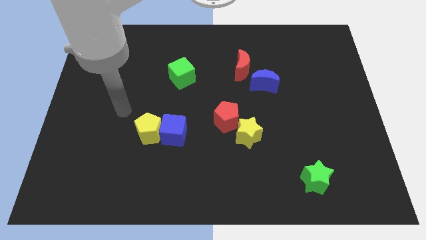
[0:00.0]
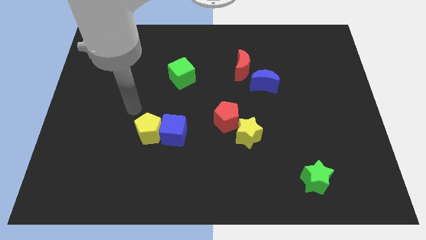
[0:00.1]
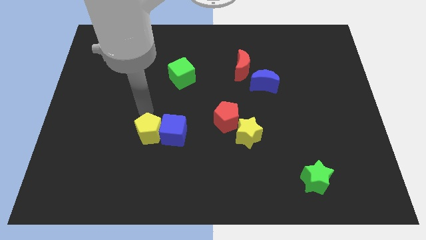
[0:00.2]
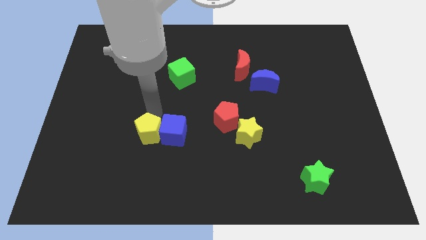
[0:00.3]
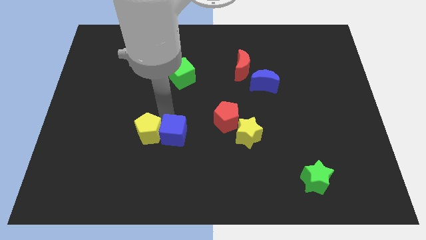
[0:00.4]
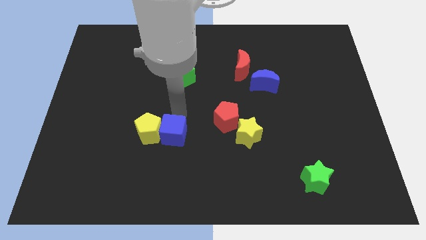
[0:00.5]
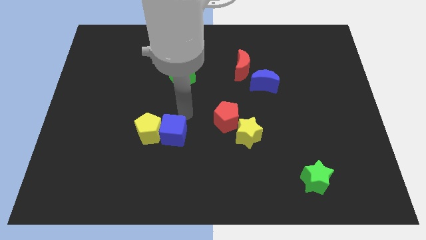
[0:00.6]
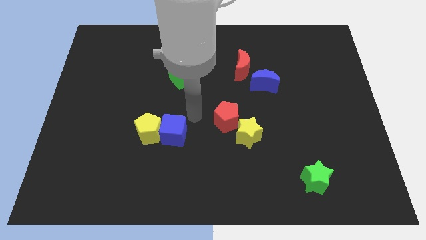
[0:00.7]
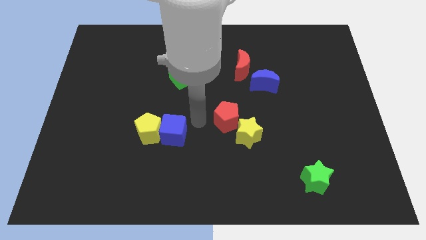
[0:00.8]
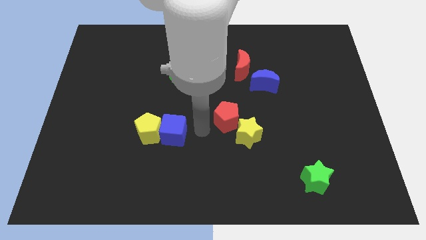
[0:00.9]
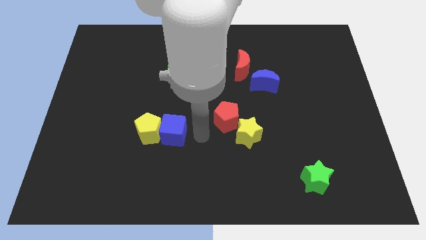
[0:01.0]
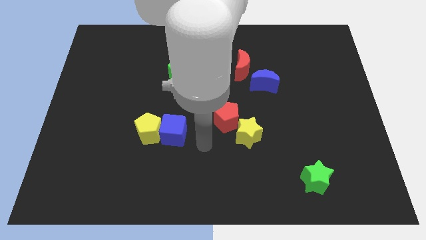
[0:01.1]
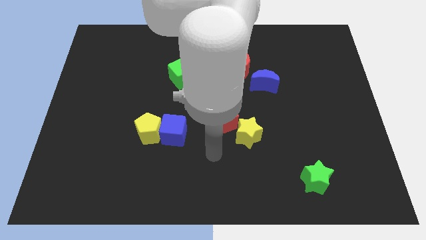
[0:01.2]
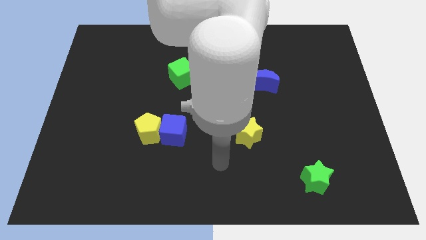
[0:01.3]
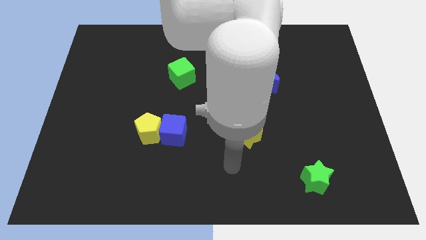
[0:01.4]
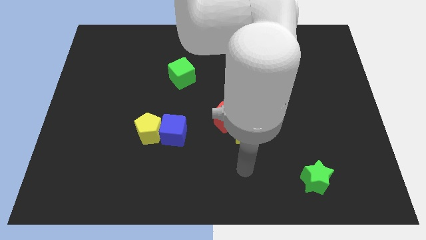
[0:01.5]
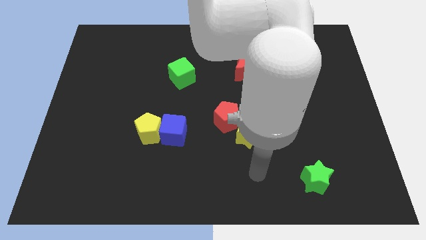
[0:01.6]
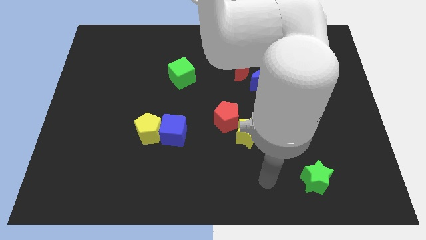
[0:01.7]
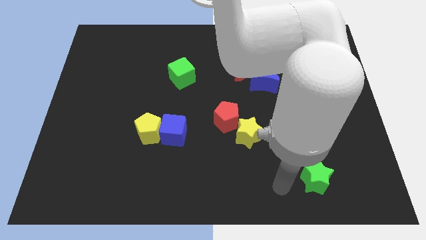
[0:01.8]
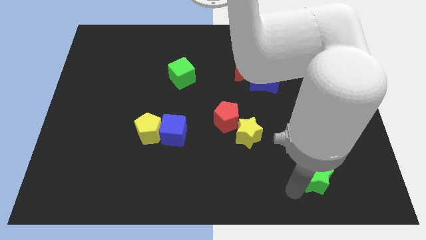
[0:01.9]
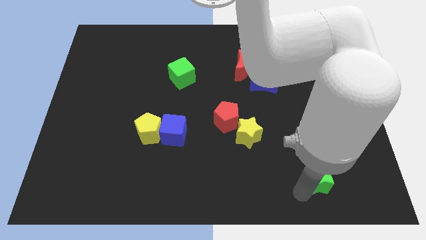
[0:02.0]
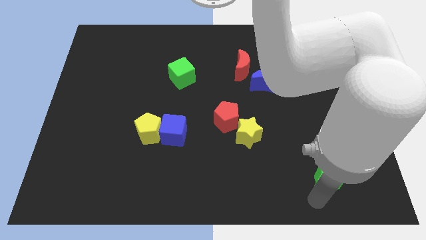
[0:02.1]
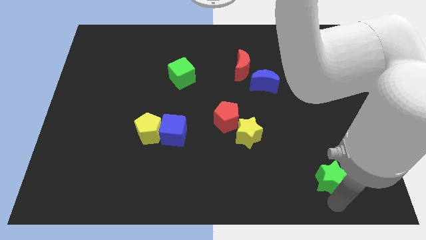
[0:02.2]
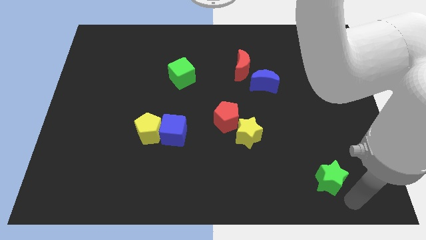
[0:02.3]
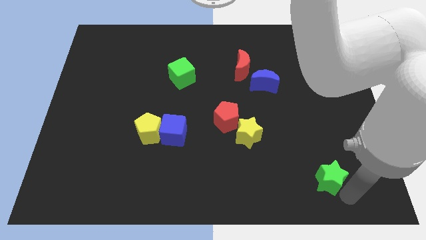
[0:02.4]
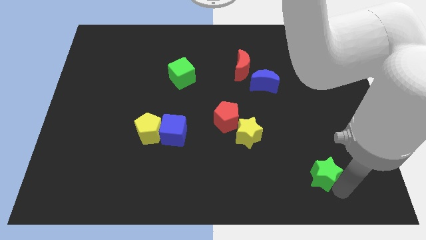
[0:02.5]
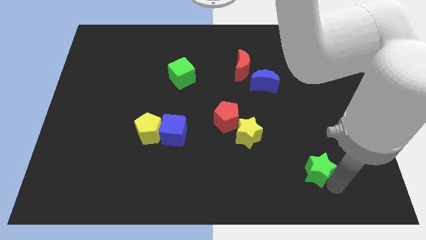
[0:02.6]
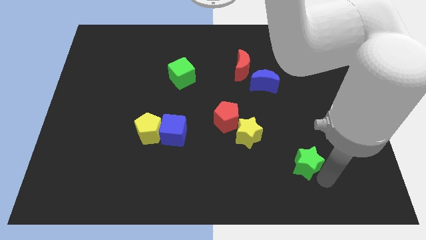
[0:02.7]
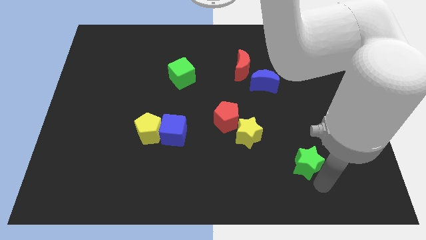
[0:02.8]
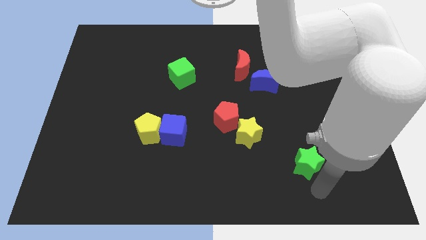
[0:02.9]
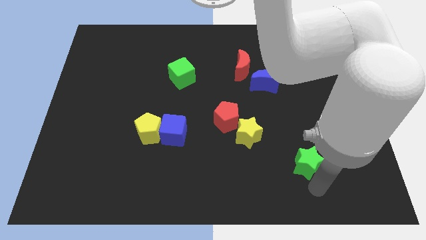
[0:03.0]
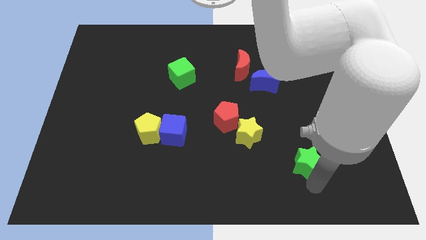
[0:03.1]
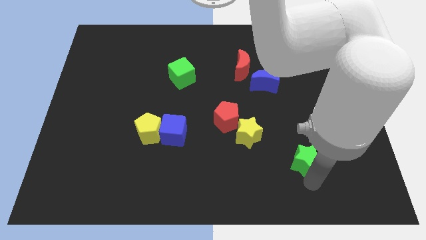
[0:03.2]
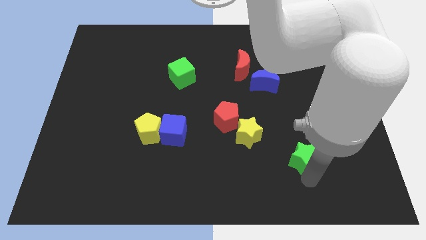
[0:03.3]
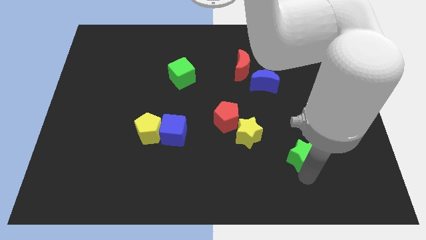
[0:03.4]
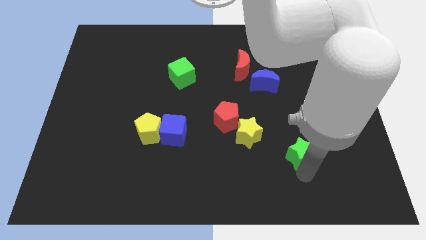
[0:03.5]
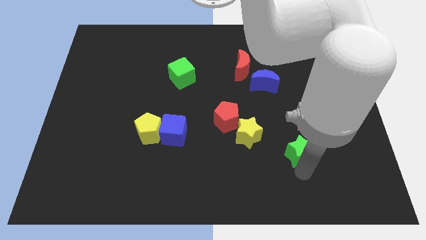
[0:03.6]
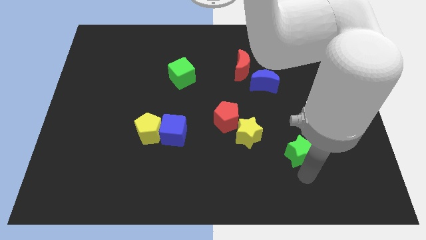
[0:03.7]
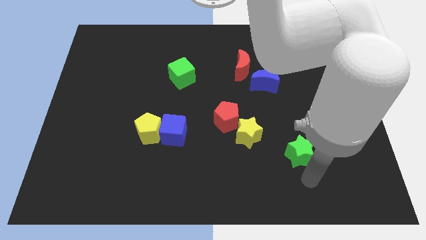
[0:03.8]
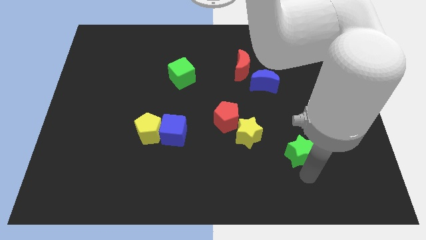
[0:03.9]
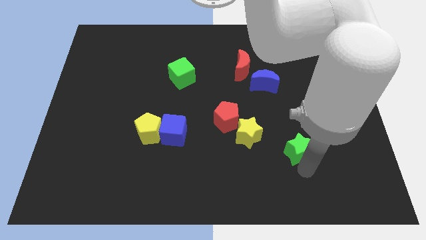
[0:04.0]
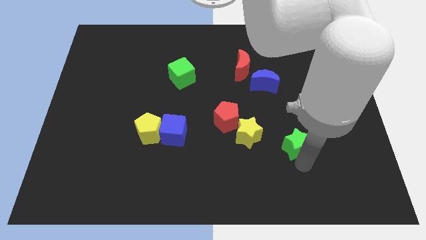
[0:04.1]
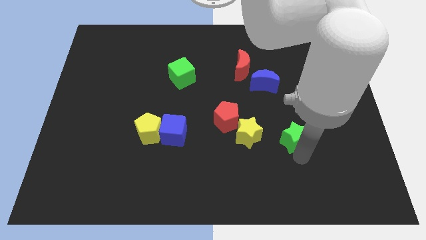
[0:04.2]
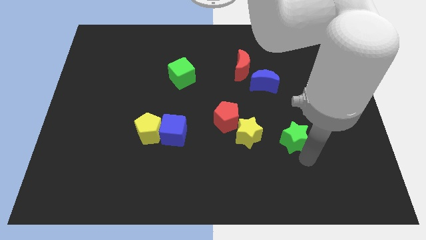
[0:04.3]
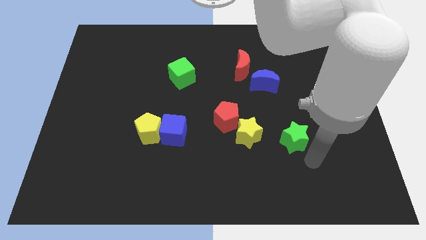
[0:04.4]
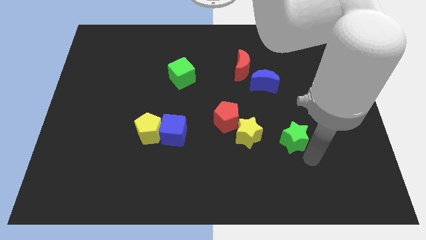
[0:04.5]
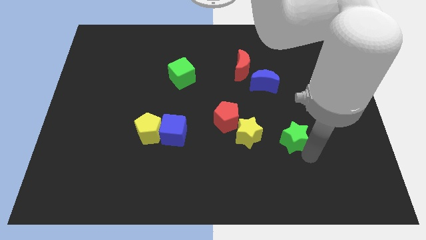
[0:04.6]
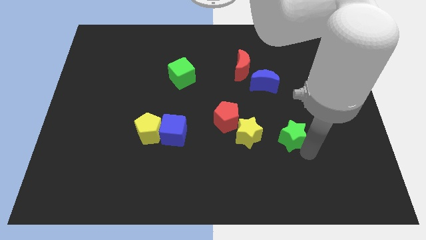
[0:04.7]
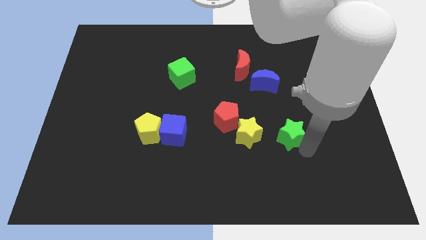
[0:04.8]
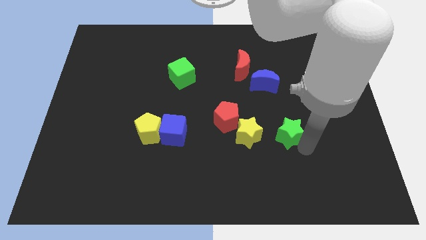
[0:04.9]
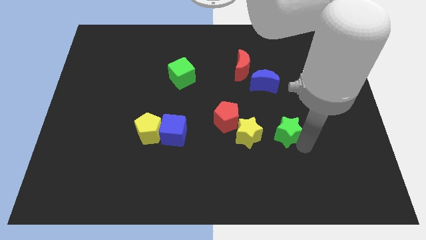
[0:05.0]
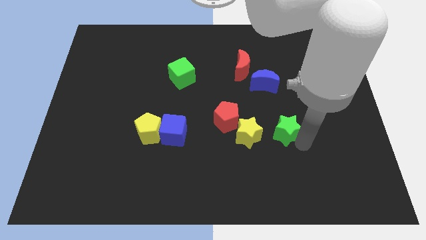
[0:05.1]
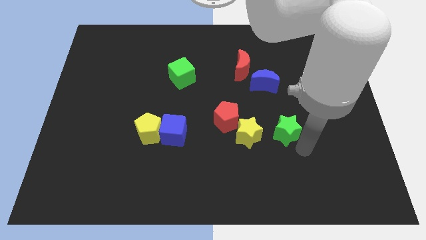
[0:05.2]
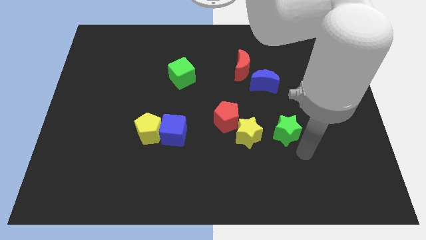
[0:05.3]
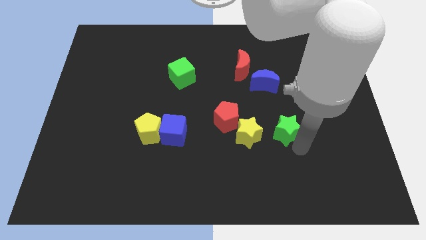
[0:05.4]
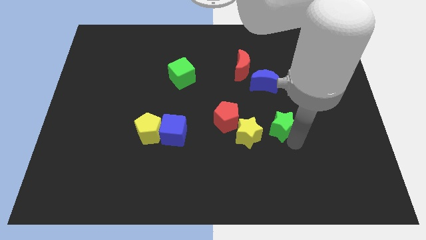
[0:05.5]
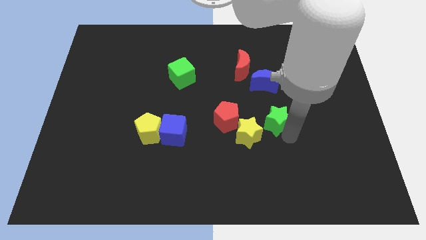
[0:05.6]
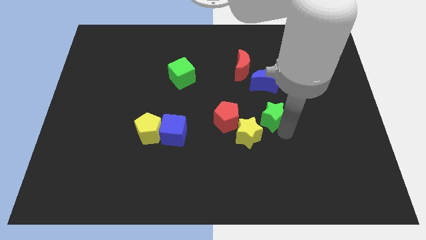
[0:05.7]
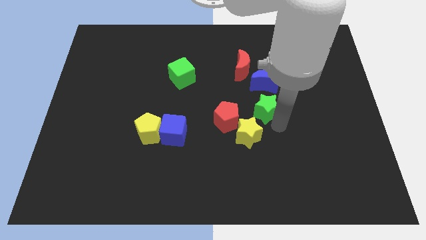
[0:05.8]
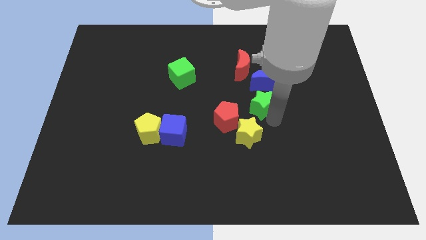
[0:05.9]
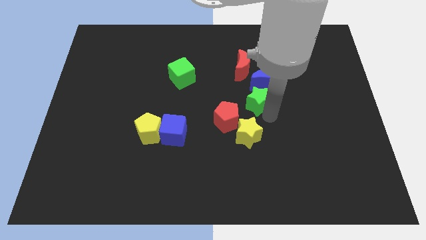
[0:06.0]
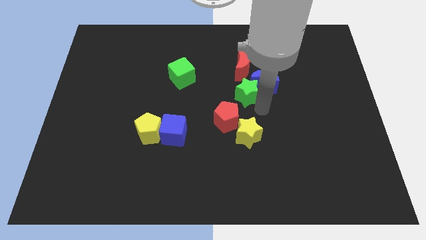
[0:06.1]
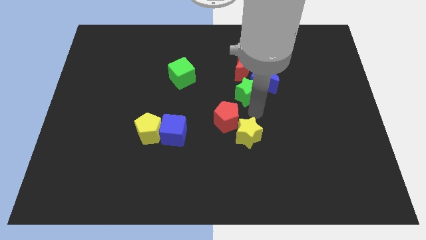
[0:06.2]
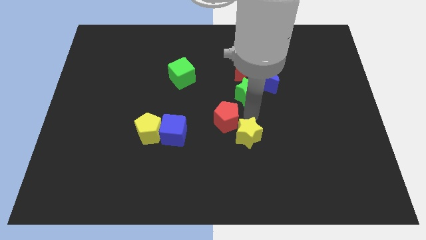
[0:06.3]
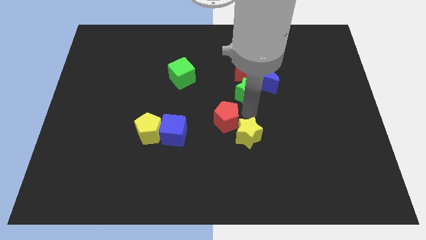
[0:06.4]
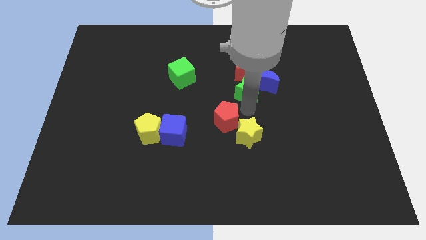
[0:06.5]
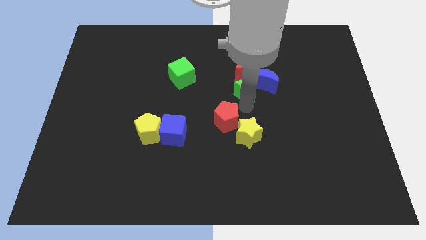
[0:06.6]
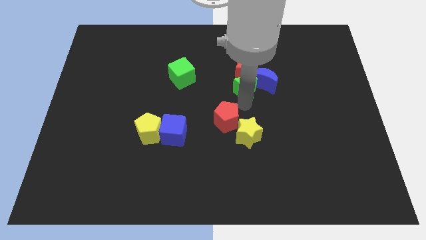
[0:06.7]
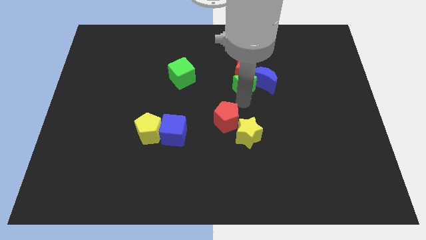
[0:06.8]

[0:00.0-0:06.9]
slide the green star next to the red moon
